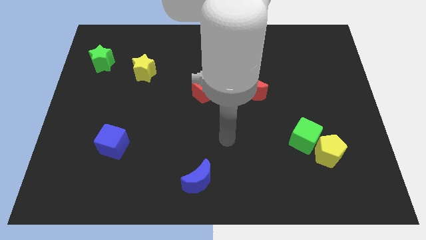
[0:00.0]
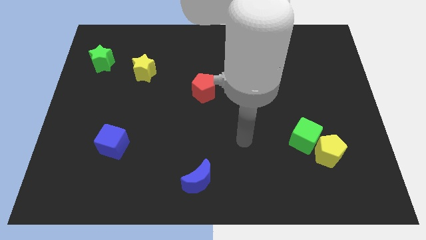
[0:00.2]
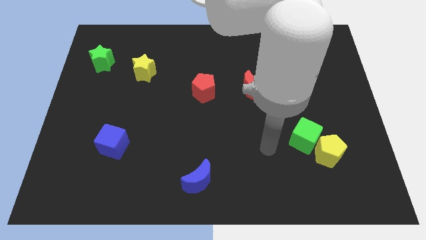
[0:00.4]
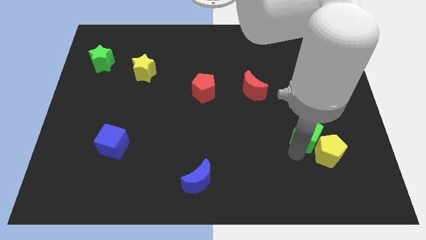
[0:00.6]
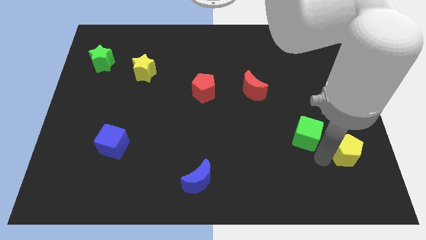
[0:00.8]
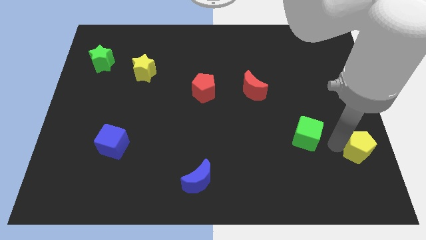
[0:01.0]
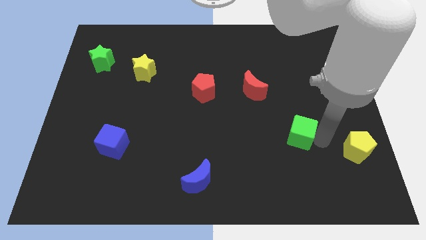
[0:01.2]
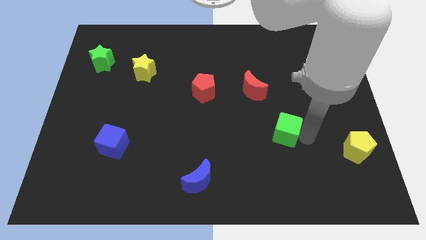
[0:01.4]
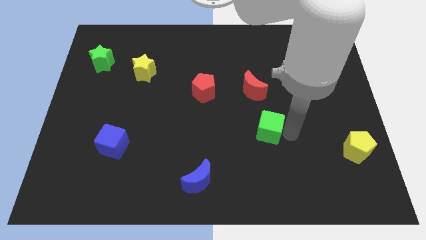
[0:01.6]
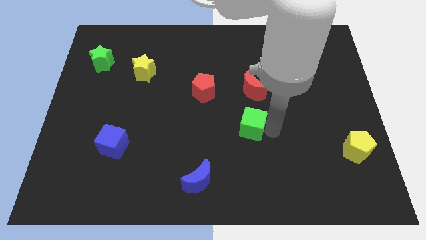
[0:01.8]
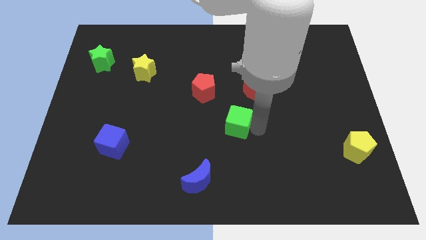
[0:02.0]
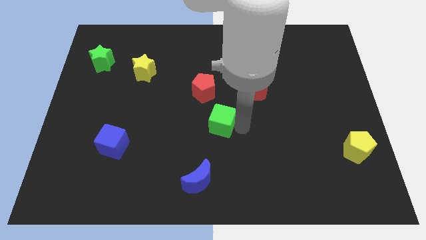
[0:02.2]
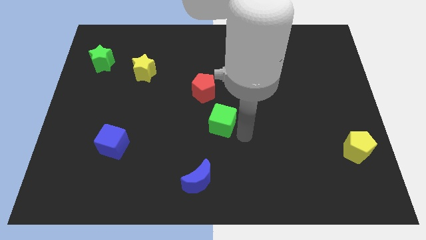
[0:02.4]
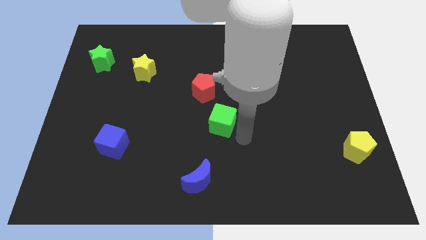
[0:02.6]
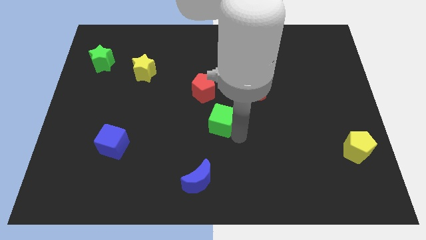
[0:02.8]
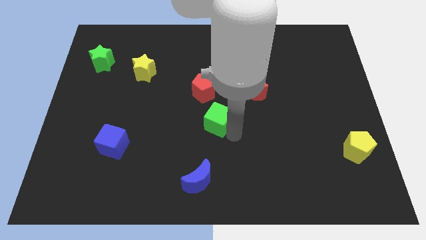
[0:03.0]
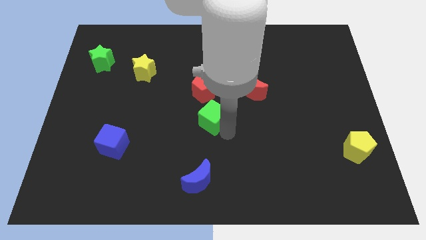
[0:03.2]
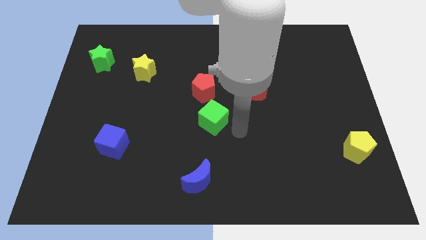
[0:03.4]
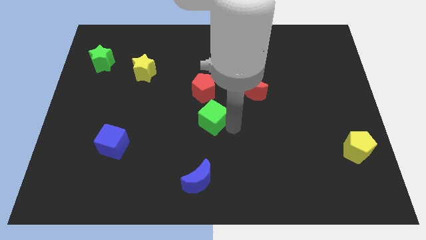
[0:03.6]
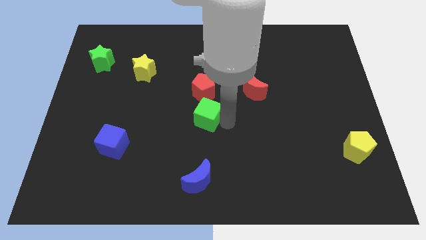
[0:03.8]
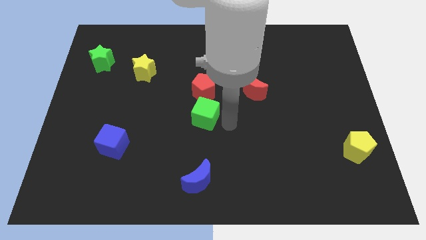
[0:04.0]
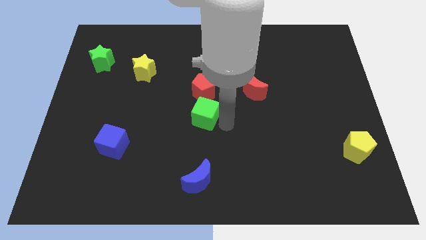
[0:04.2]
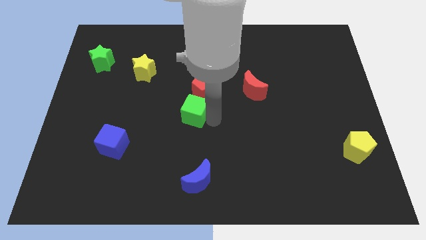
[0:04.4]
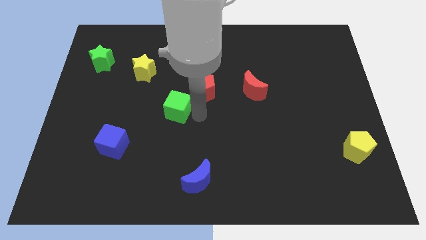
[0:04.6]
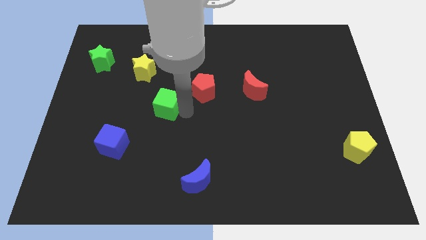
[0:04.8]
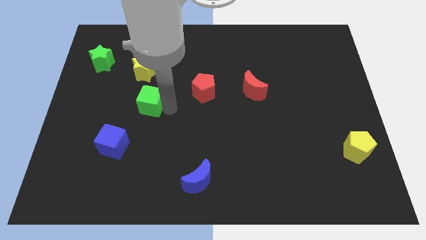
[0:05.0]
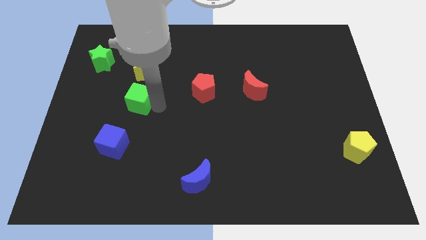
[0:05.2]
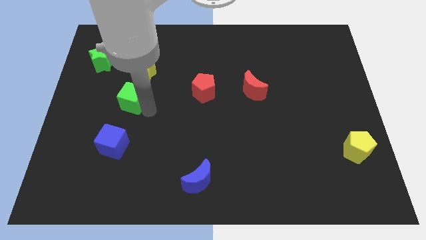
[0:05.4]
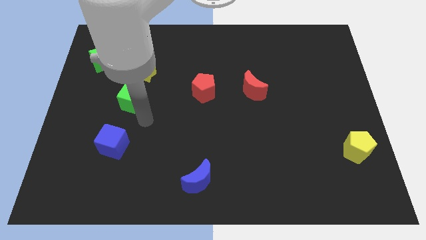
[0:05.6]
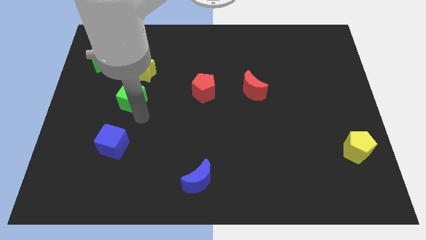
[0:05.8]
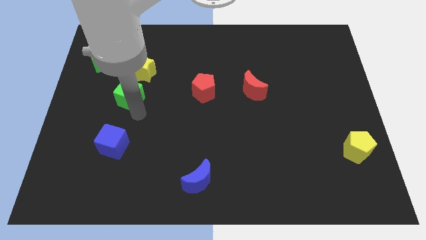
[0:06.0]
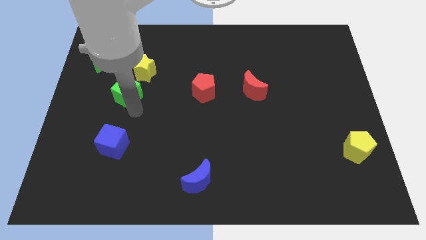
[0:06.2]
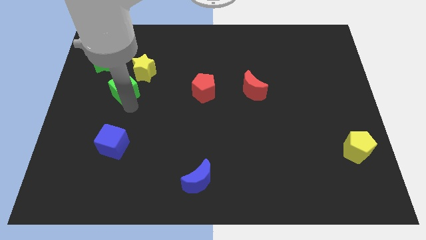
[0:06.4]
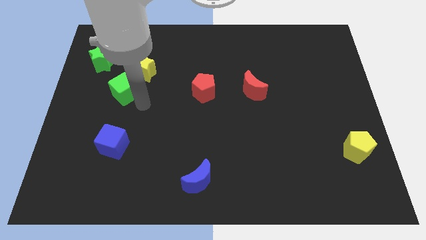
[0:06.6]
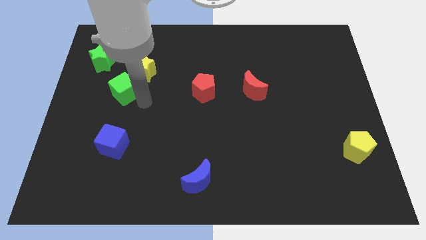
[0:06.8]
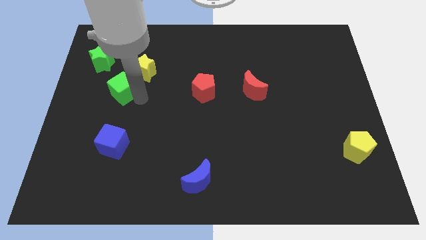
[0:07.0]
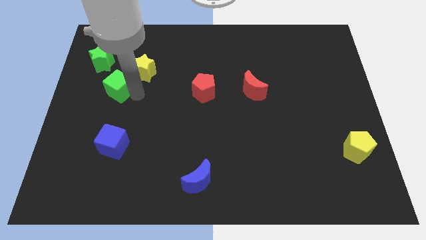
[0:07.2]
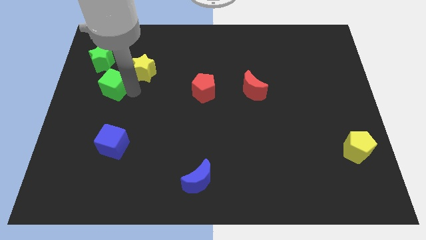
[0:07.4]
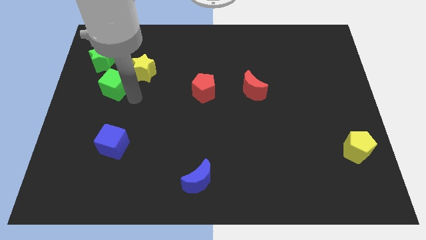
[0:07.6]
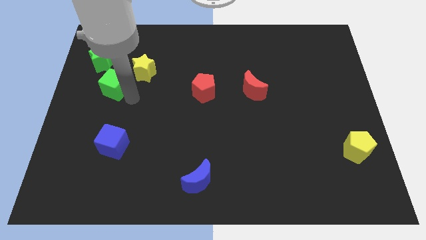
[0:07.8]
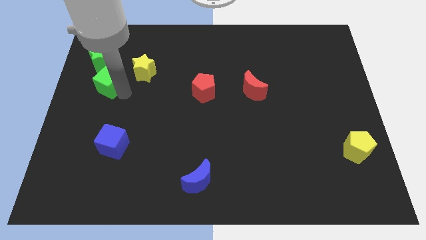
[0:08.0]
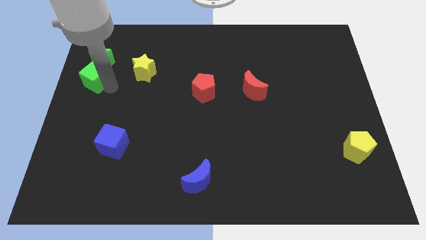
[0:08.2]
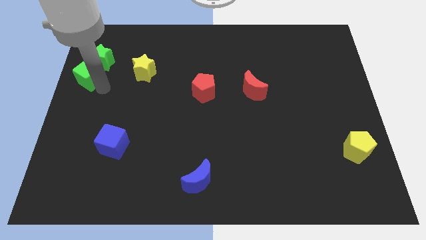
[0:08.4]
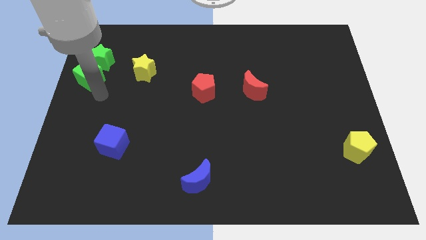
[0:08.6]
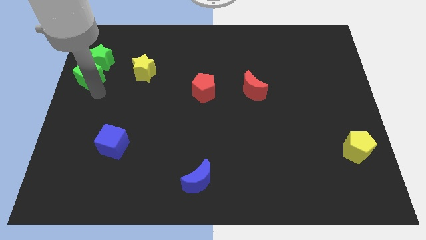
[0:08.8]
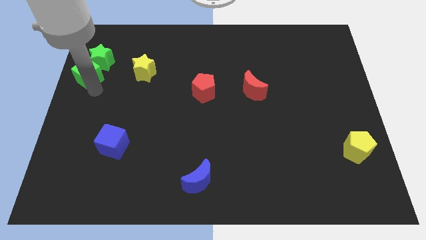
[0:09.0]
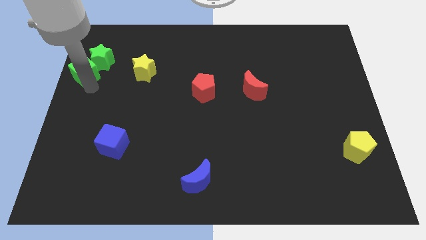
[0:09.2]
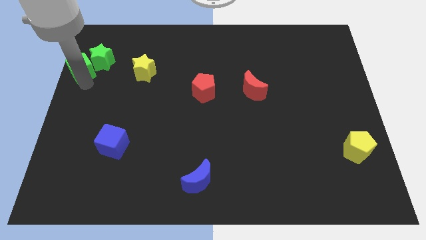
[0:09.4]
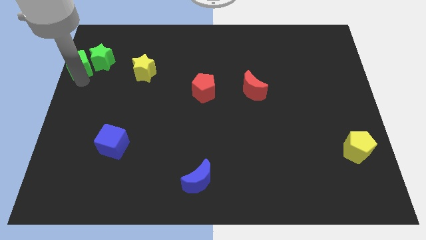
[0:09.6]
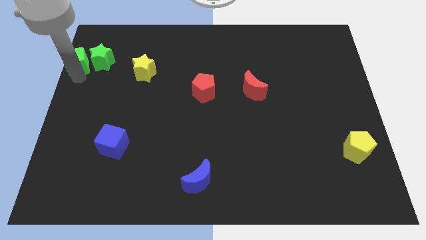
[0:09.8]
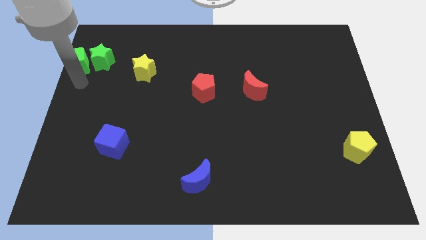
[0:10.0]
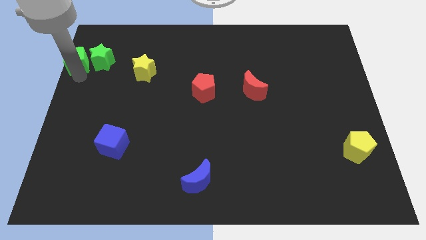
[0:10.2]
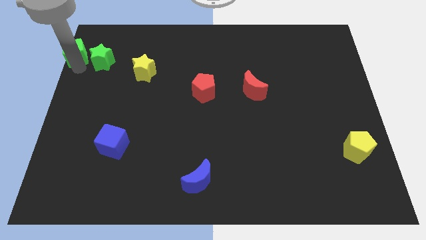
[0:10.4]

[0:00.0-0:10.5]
push the green cube to the top left

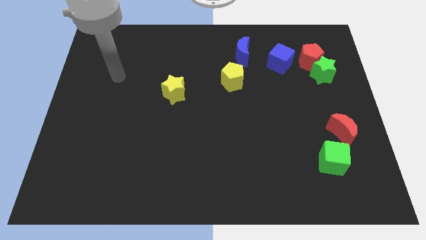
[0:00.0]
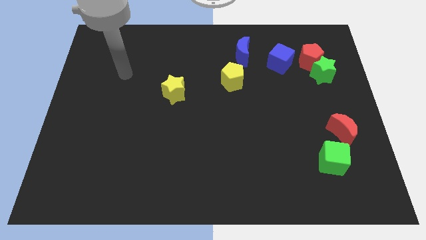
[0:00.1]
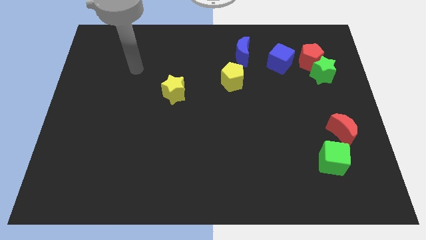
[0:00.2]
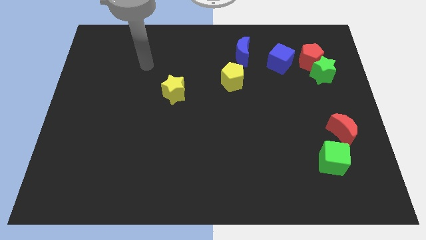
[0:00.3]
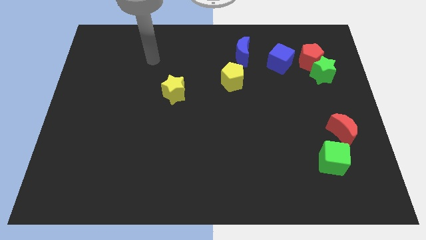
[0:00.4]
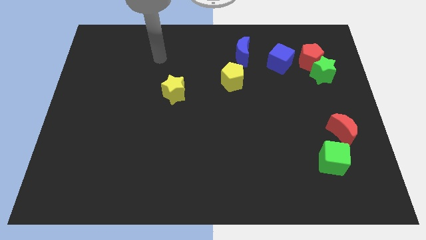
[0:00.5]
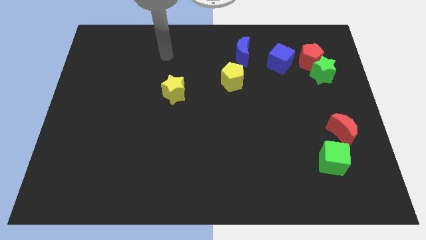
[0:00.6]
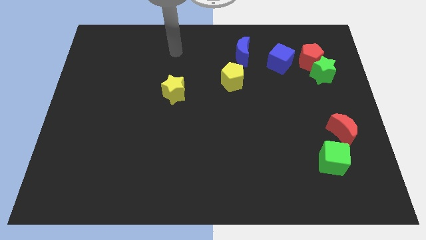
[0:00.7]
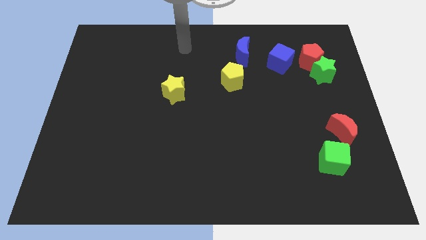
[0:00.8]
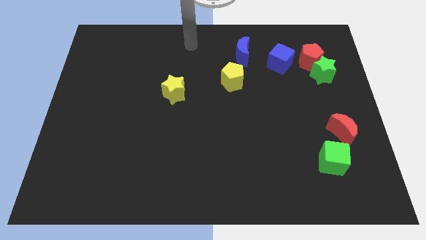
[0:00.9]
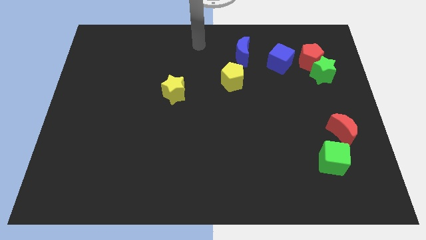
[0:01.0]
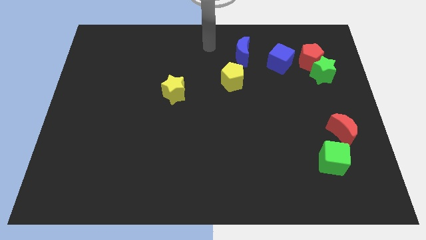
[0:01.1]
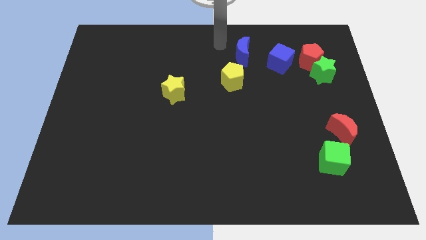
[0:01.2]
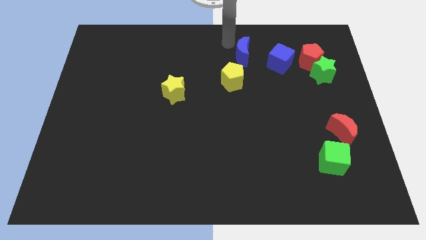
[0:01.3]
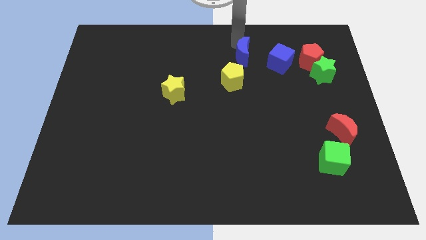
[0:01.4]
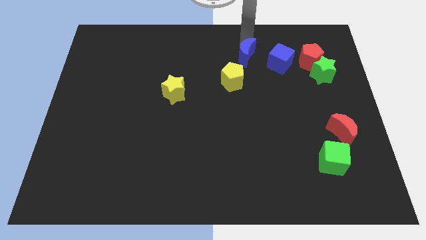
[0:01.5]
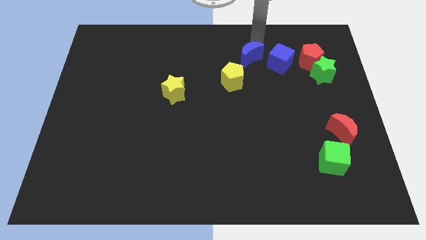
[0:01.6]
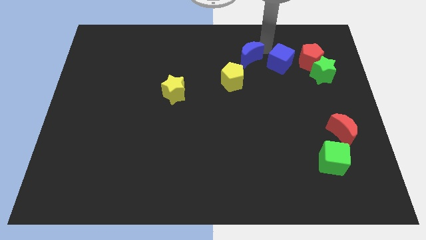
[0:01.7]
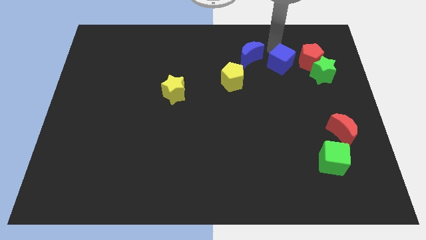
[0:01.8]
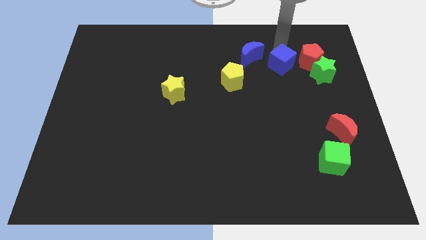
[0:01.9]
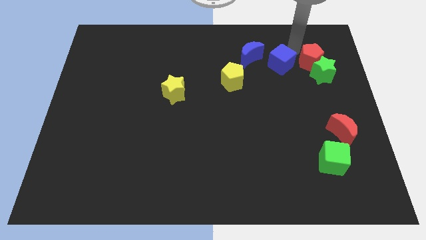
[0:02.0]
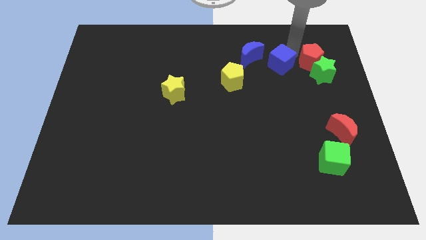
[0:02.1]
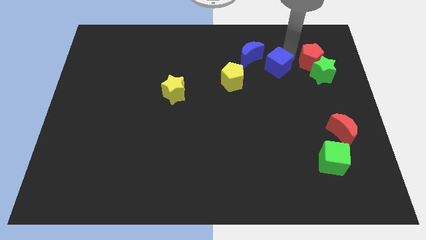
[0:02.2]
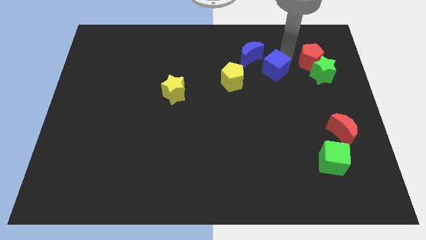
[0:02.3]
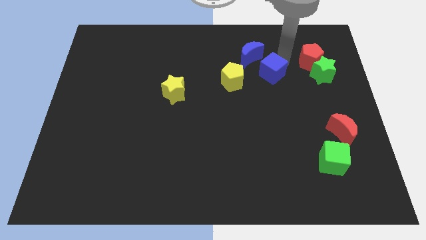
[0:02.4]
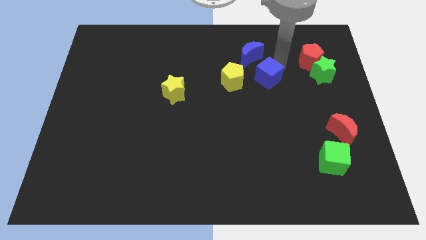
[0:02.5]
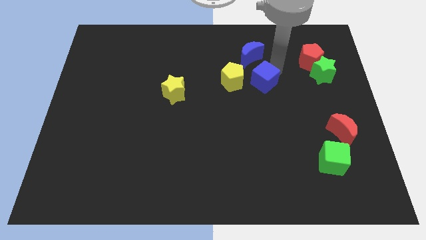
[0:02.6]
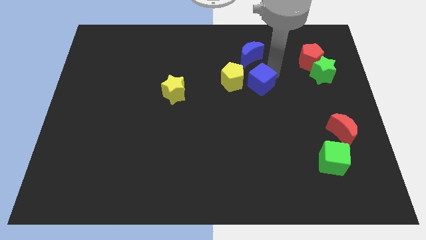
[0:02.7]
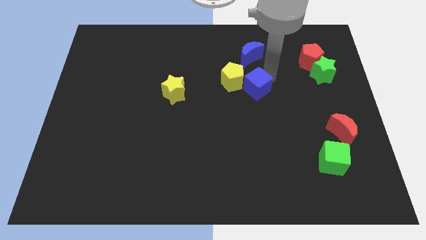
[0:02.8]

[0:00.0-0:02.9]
slide the blue cube to the center
